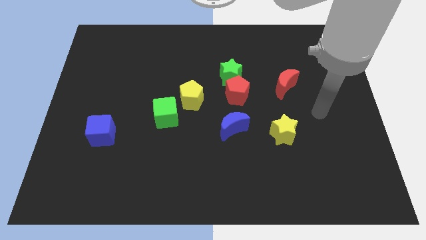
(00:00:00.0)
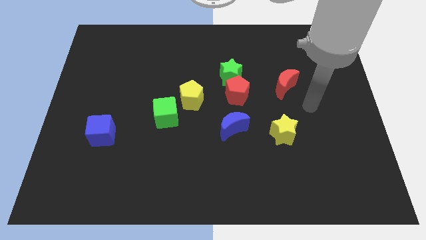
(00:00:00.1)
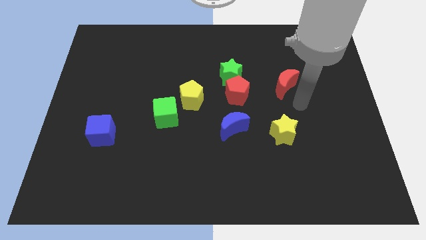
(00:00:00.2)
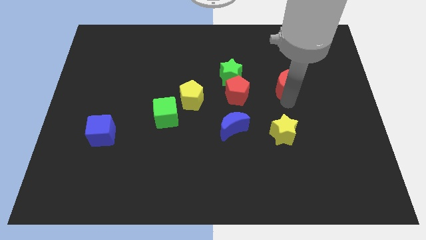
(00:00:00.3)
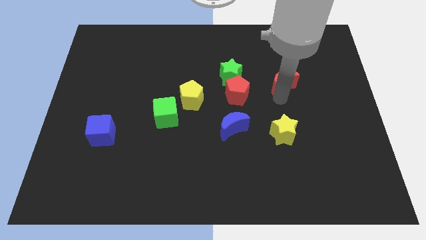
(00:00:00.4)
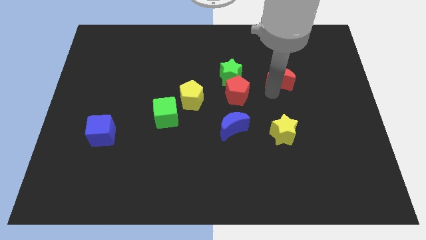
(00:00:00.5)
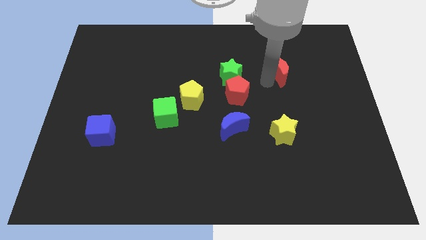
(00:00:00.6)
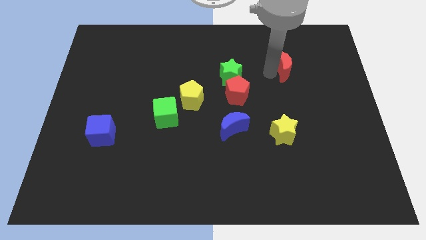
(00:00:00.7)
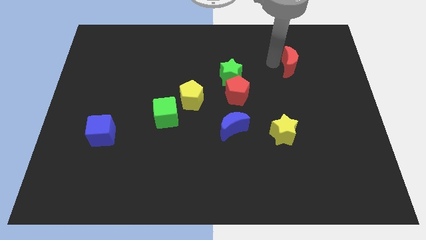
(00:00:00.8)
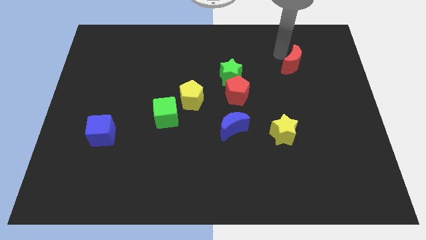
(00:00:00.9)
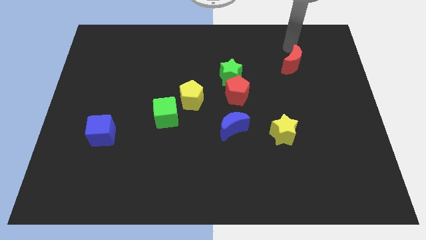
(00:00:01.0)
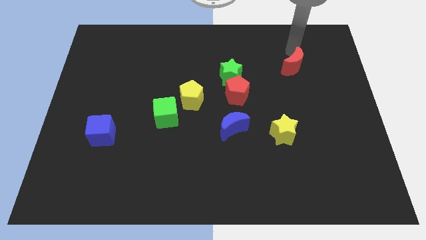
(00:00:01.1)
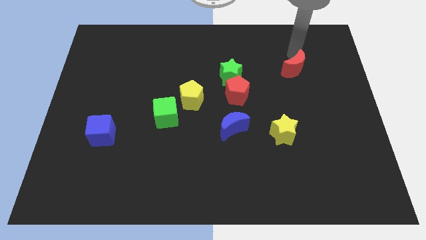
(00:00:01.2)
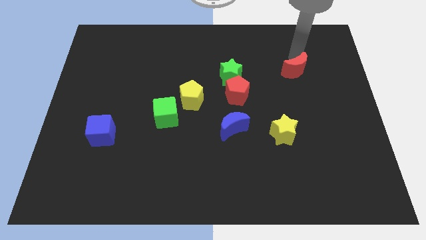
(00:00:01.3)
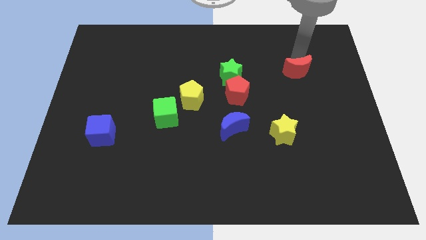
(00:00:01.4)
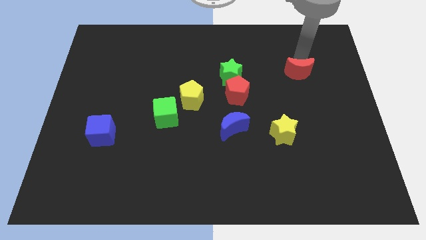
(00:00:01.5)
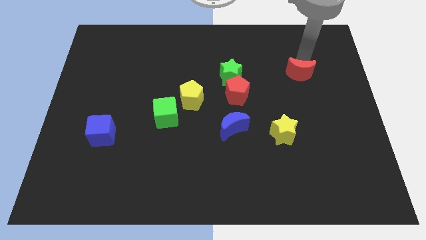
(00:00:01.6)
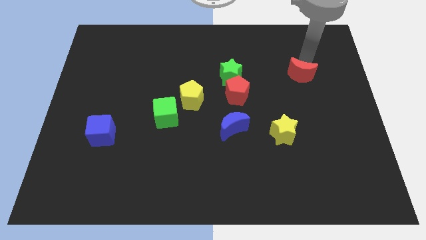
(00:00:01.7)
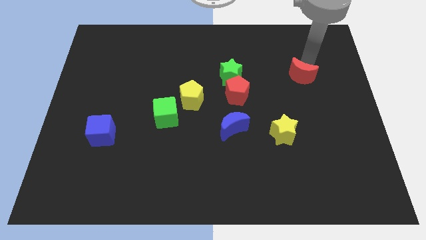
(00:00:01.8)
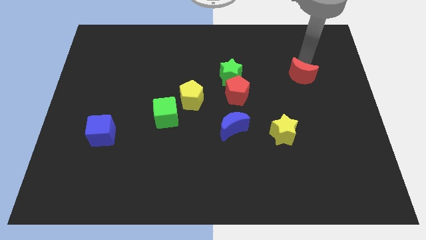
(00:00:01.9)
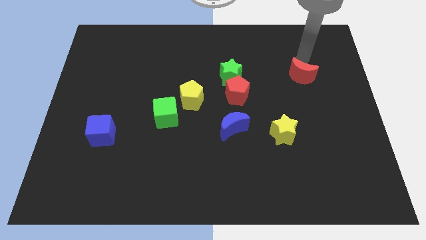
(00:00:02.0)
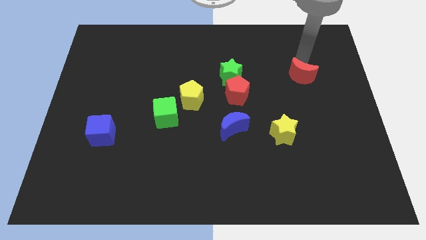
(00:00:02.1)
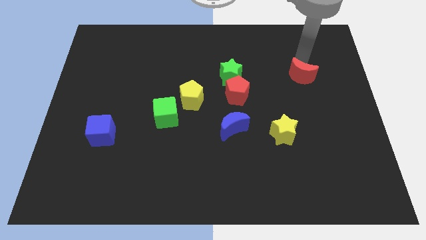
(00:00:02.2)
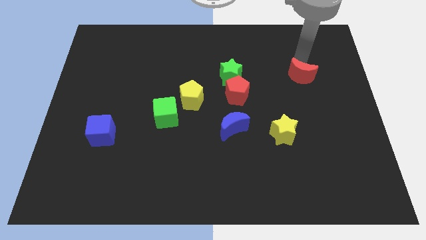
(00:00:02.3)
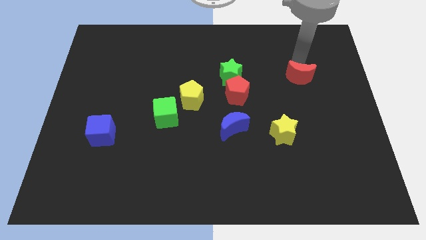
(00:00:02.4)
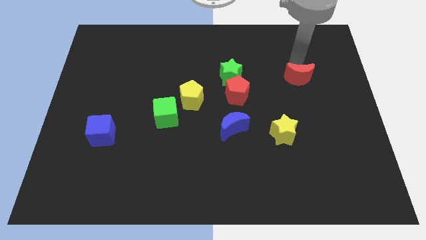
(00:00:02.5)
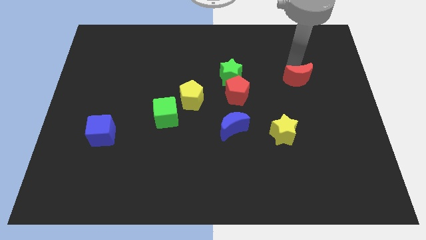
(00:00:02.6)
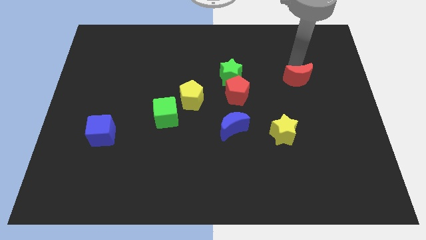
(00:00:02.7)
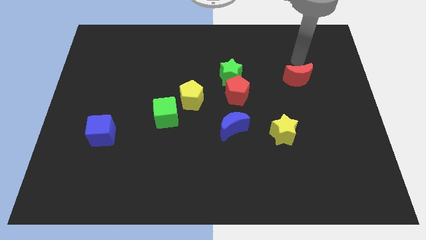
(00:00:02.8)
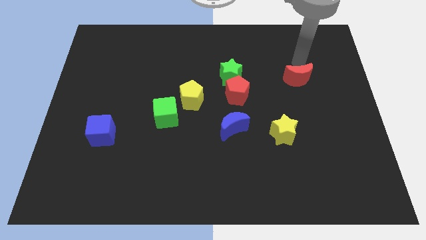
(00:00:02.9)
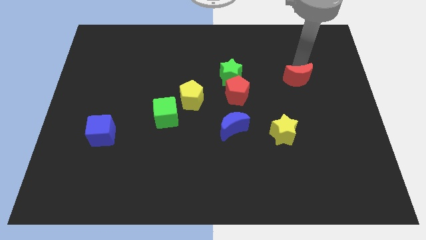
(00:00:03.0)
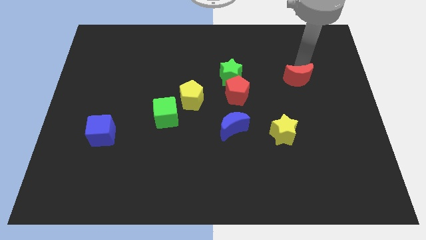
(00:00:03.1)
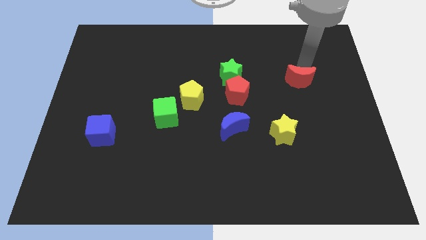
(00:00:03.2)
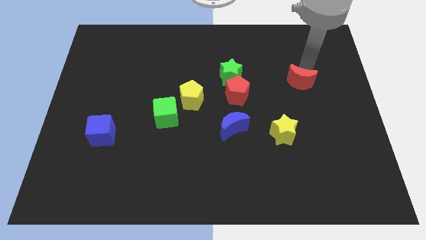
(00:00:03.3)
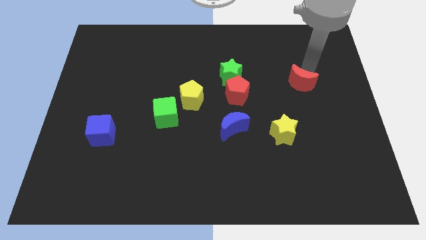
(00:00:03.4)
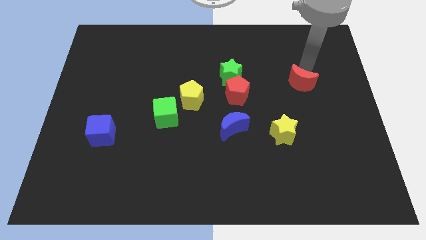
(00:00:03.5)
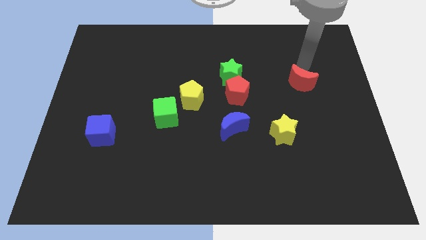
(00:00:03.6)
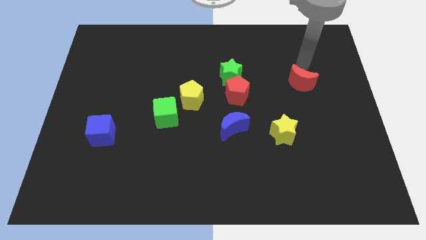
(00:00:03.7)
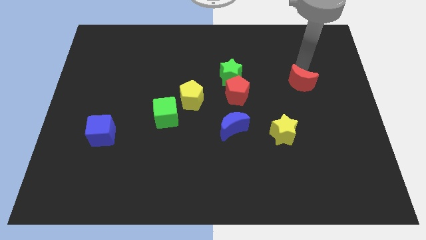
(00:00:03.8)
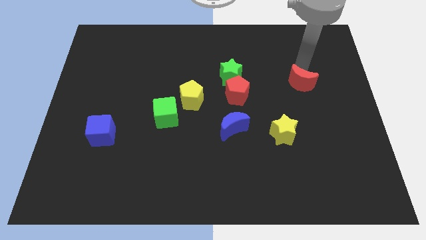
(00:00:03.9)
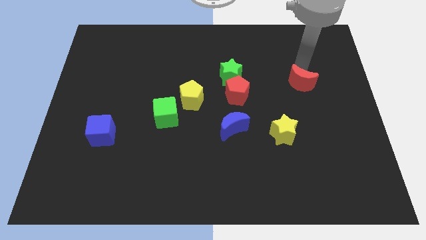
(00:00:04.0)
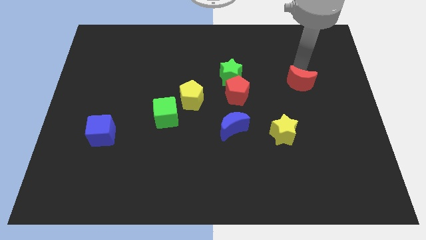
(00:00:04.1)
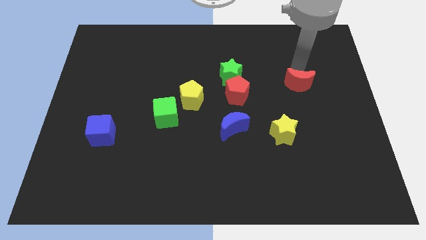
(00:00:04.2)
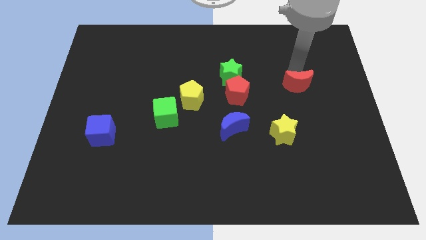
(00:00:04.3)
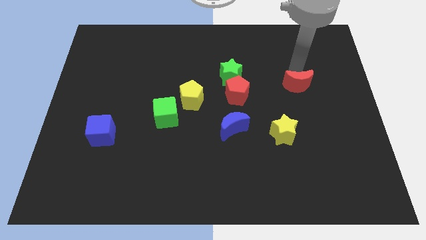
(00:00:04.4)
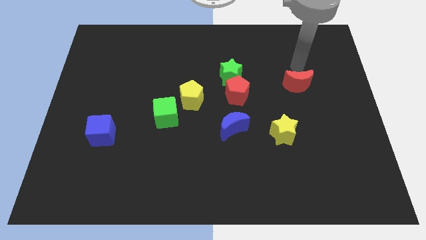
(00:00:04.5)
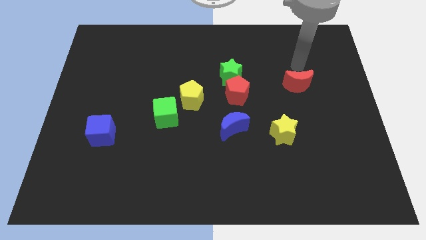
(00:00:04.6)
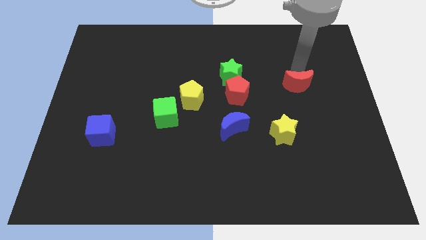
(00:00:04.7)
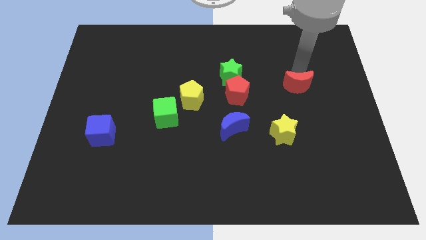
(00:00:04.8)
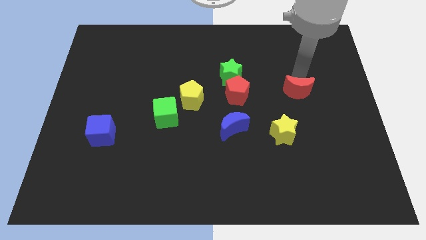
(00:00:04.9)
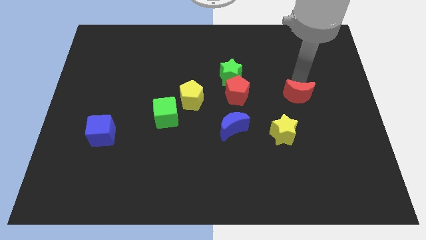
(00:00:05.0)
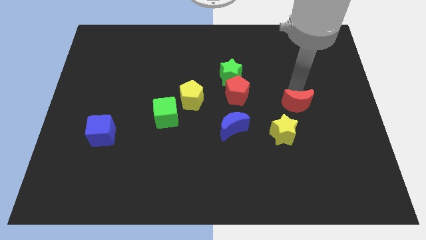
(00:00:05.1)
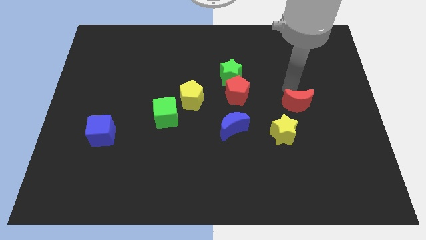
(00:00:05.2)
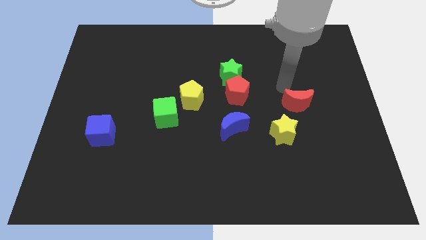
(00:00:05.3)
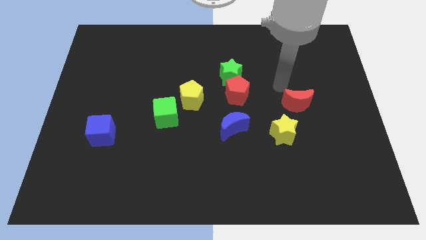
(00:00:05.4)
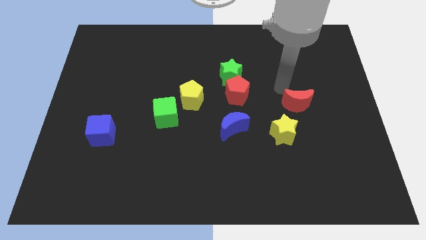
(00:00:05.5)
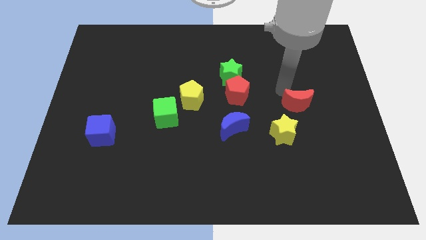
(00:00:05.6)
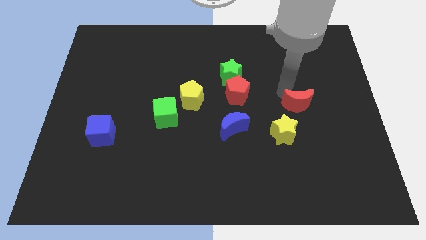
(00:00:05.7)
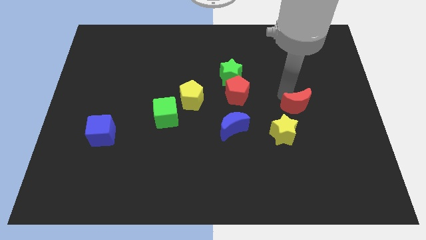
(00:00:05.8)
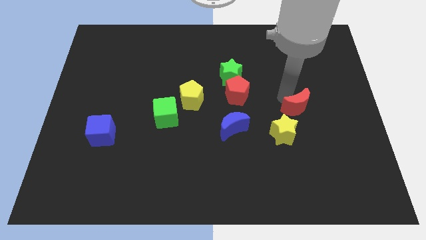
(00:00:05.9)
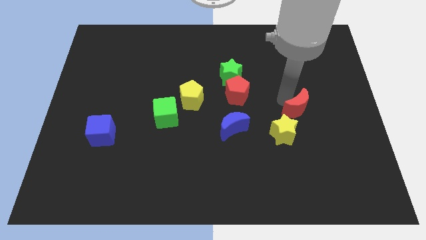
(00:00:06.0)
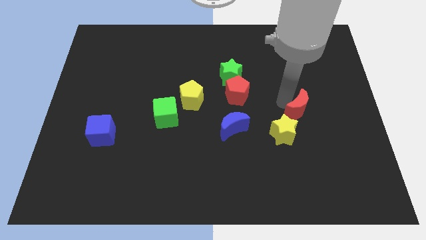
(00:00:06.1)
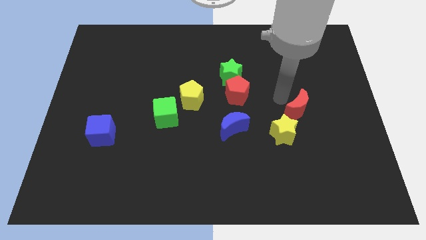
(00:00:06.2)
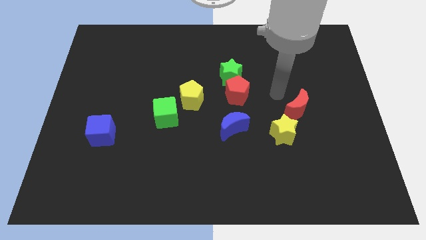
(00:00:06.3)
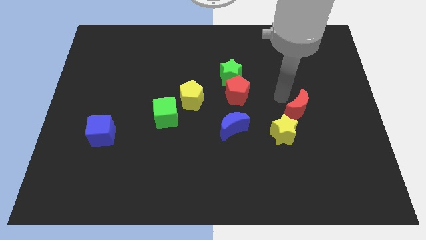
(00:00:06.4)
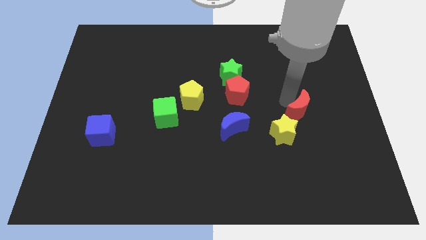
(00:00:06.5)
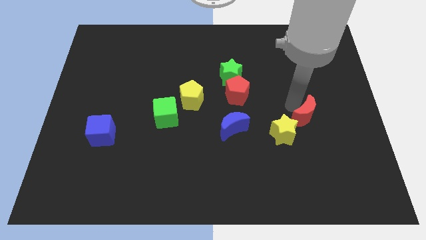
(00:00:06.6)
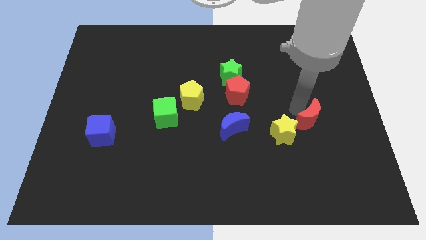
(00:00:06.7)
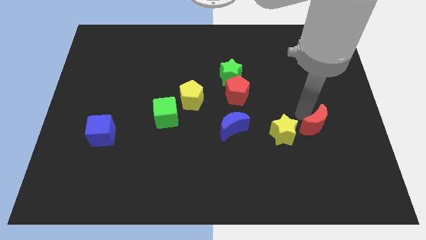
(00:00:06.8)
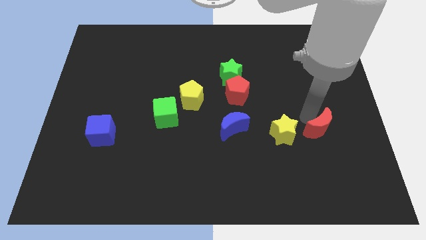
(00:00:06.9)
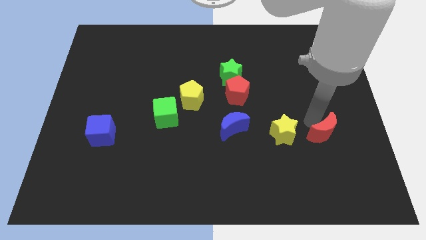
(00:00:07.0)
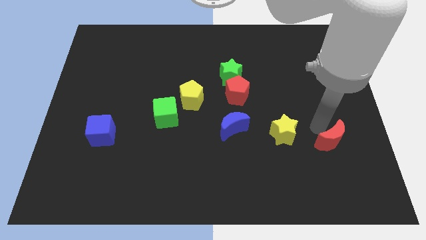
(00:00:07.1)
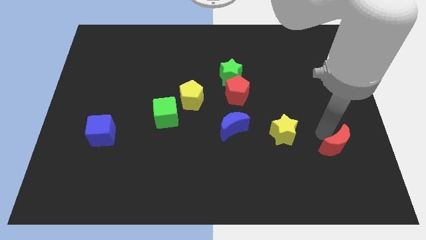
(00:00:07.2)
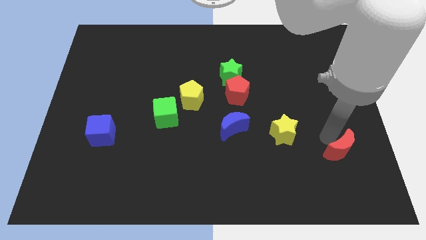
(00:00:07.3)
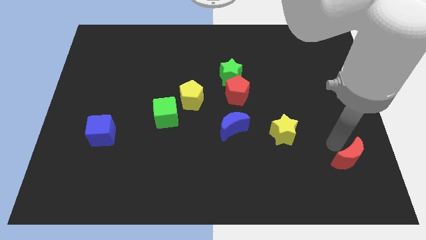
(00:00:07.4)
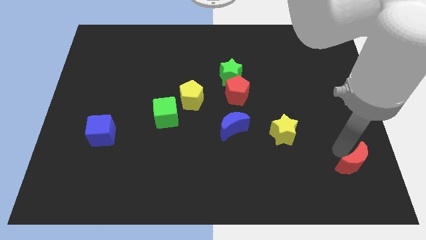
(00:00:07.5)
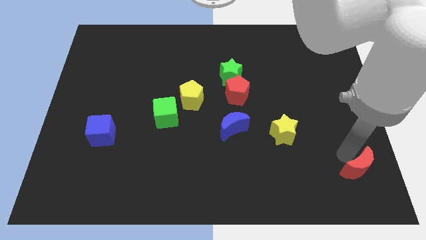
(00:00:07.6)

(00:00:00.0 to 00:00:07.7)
put the red moon to the bottom right corner
